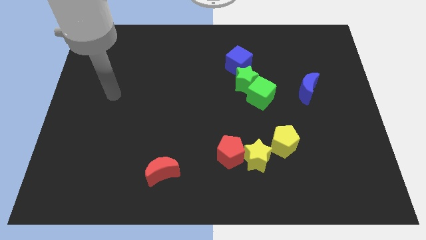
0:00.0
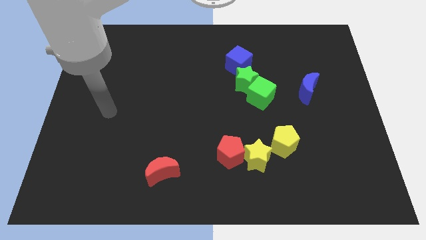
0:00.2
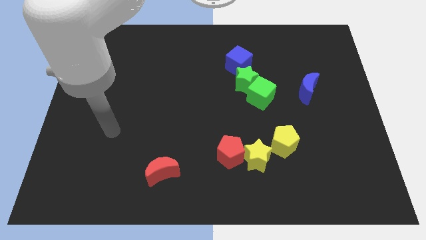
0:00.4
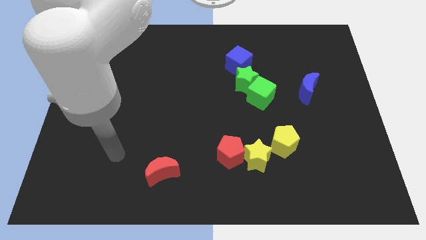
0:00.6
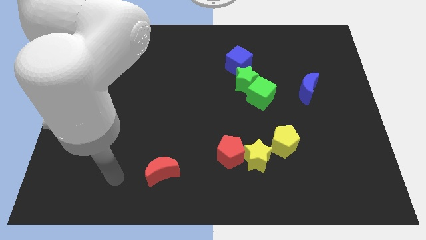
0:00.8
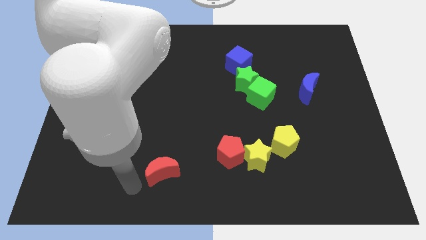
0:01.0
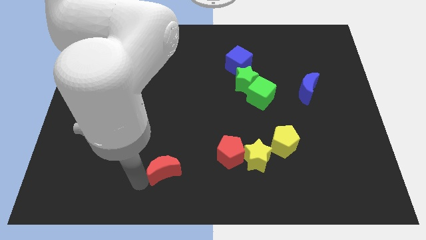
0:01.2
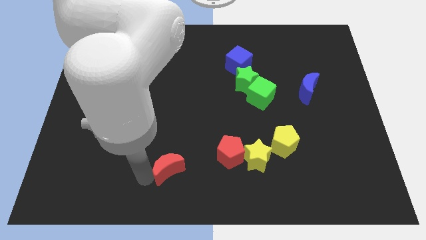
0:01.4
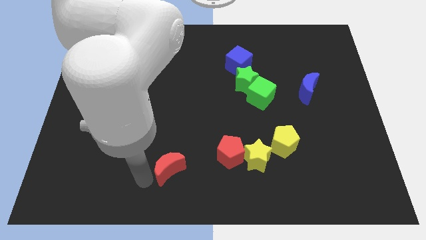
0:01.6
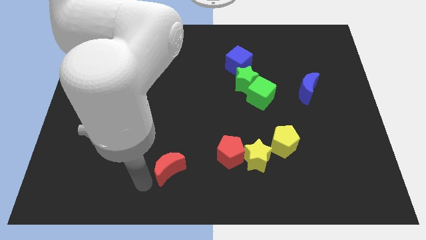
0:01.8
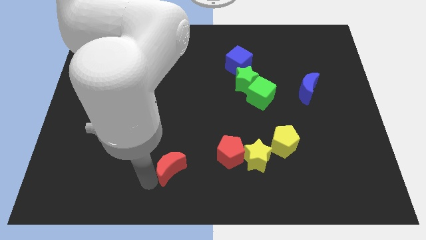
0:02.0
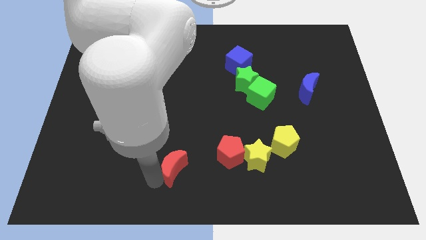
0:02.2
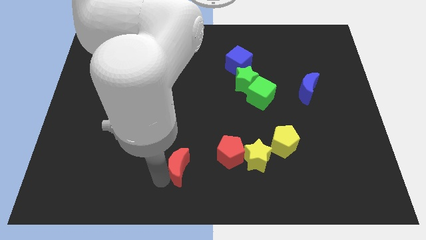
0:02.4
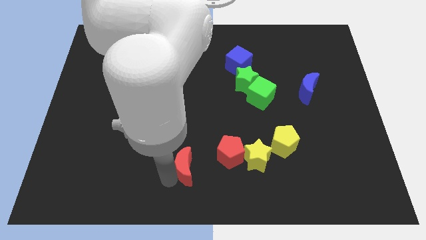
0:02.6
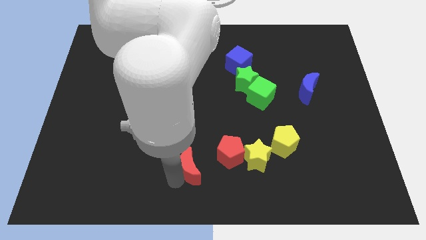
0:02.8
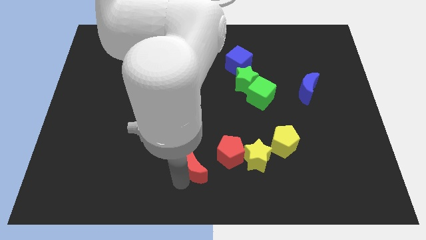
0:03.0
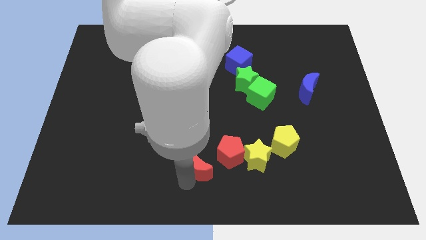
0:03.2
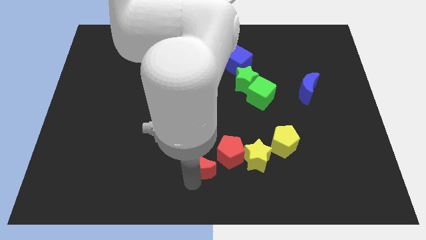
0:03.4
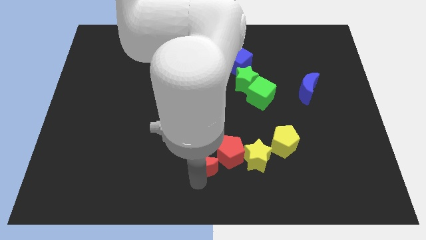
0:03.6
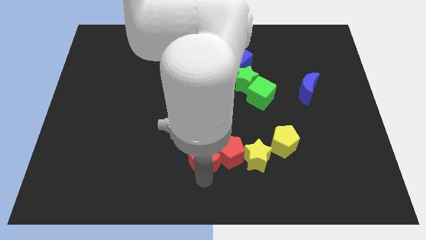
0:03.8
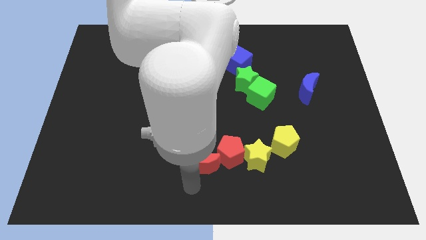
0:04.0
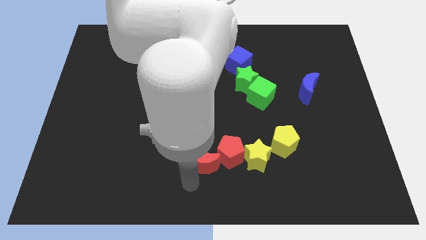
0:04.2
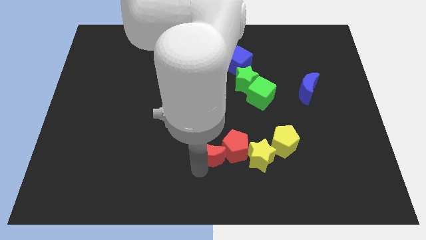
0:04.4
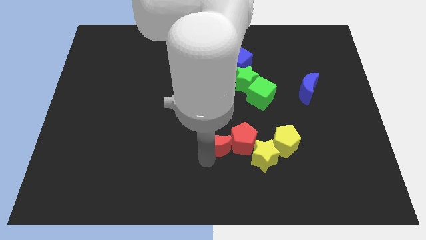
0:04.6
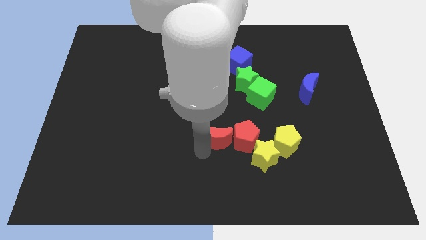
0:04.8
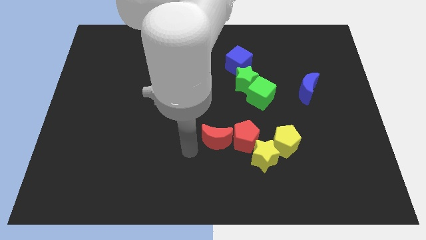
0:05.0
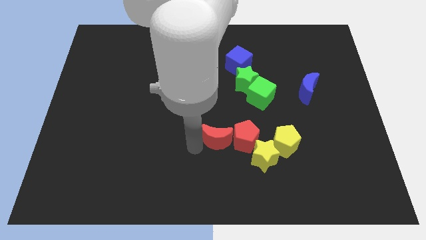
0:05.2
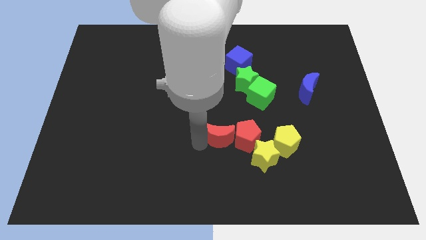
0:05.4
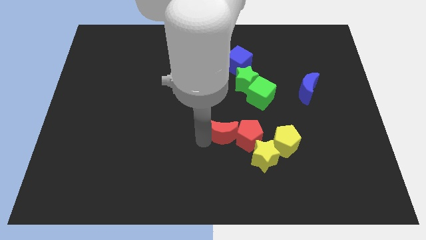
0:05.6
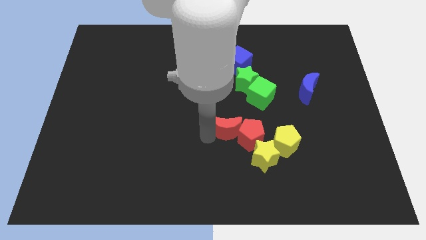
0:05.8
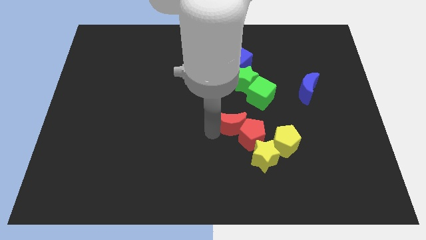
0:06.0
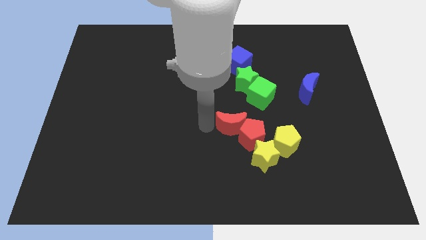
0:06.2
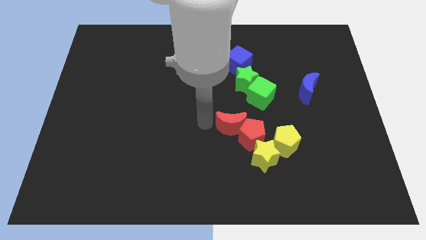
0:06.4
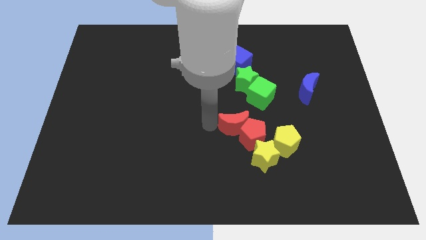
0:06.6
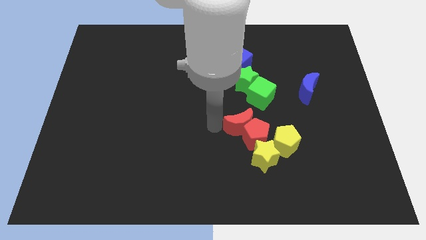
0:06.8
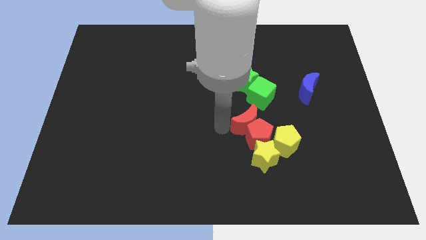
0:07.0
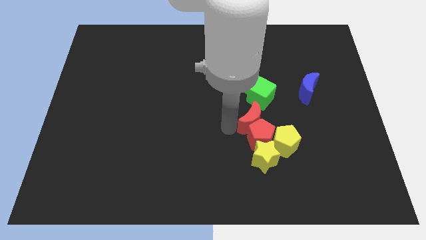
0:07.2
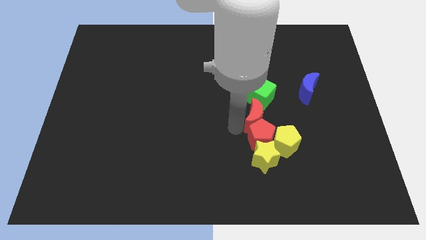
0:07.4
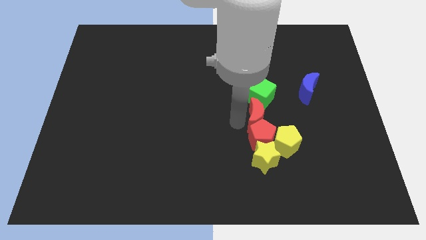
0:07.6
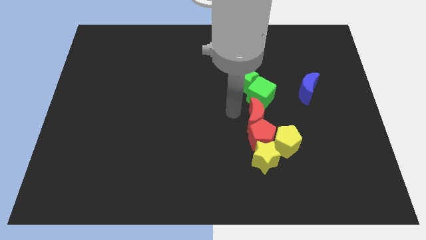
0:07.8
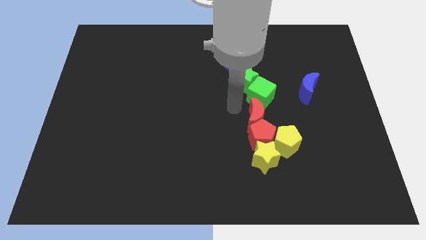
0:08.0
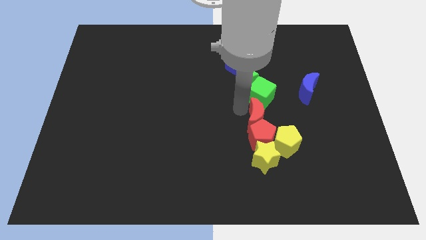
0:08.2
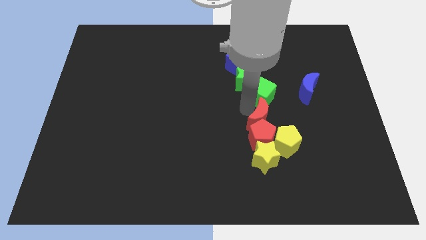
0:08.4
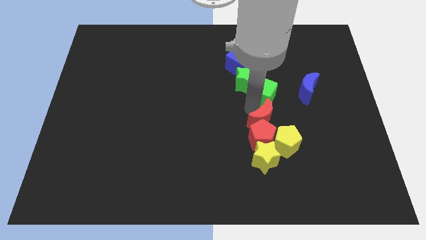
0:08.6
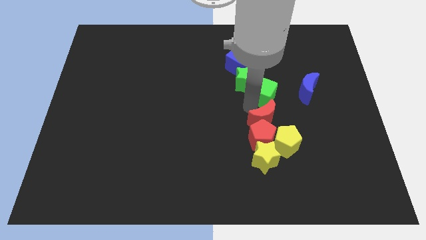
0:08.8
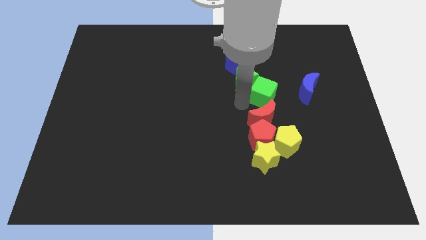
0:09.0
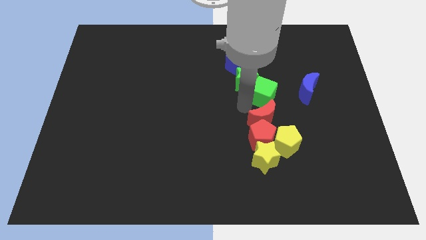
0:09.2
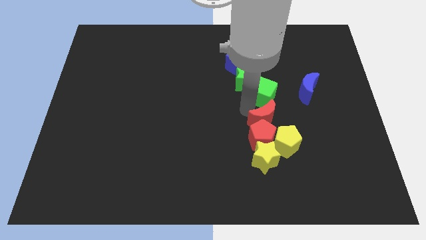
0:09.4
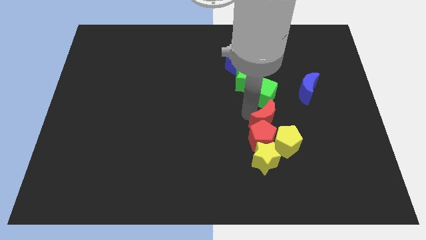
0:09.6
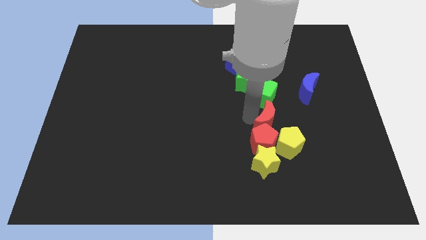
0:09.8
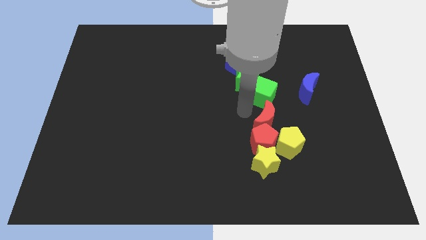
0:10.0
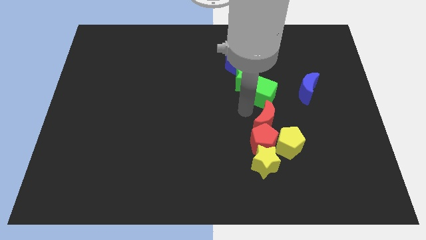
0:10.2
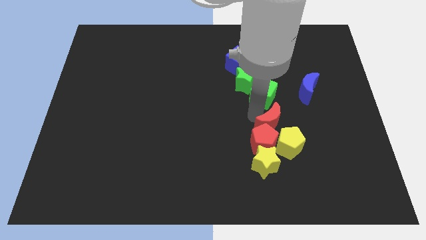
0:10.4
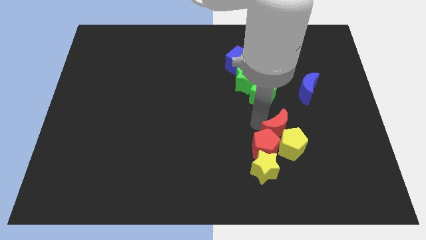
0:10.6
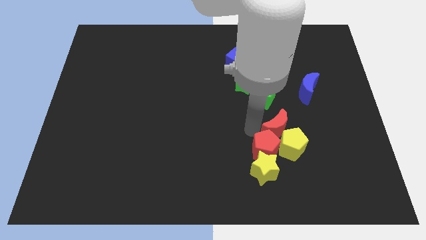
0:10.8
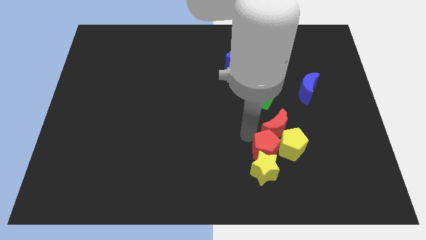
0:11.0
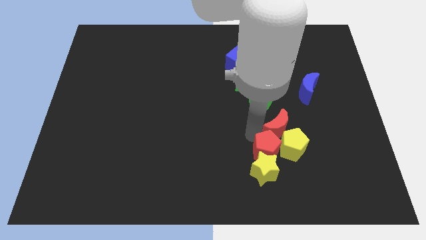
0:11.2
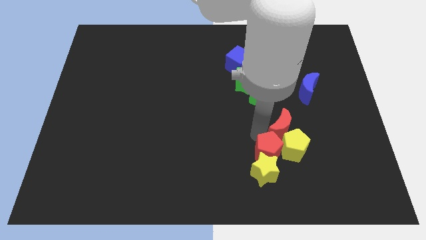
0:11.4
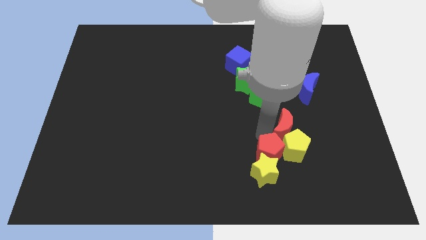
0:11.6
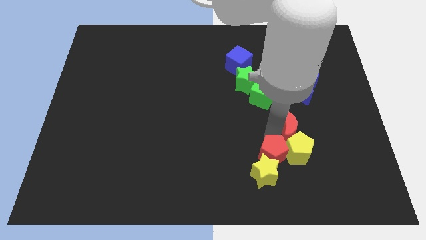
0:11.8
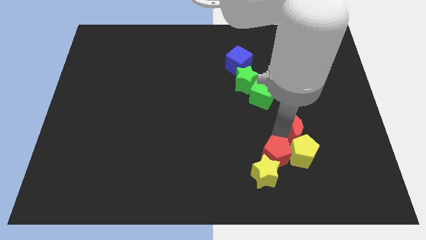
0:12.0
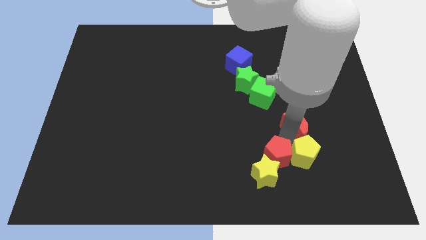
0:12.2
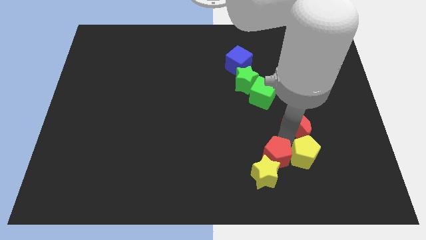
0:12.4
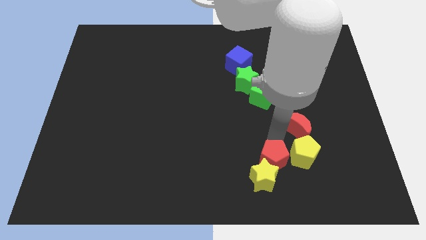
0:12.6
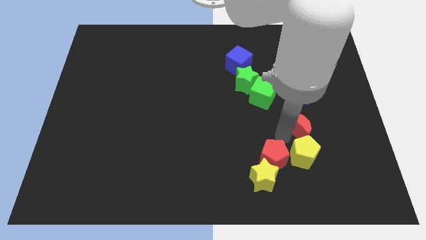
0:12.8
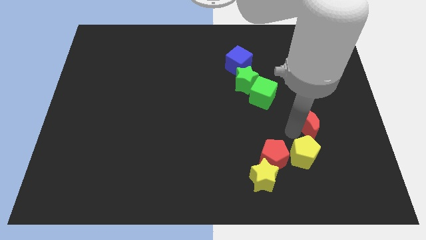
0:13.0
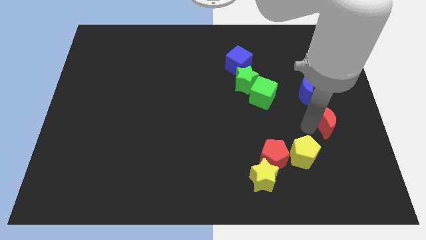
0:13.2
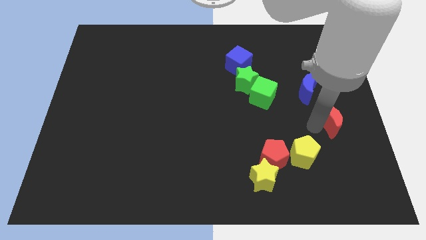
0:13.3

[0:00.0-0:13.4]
slide the red moon to the right side
